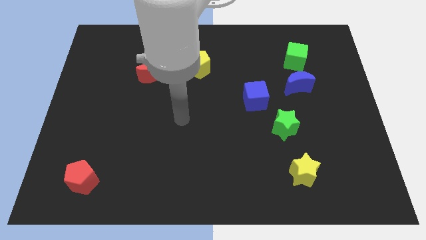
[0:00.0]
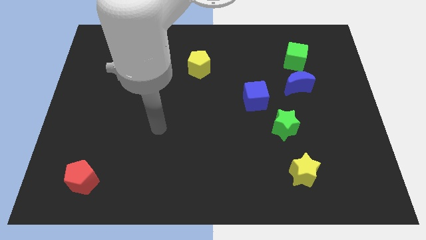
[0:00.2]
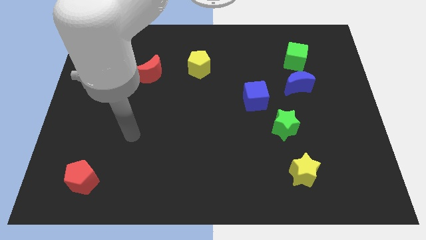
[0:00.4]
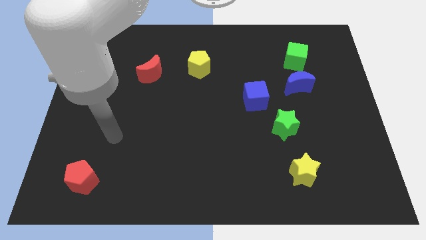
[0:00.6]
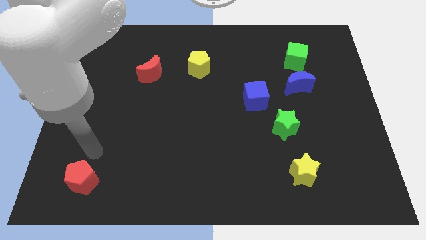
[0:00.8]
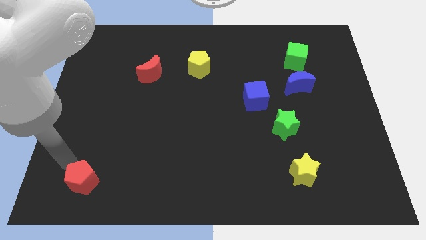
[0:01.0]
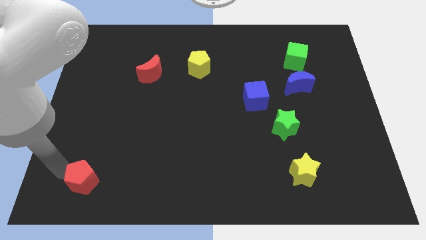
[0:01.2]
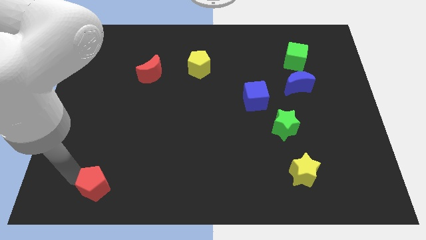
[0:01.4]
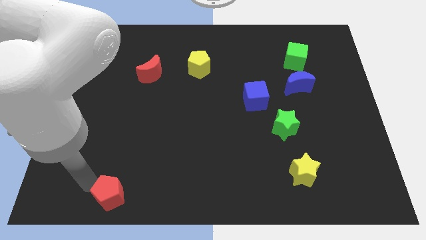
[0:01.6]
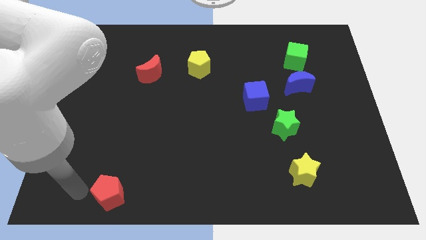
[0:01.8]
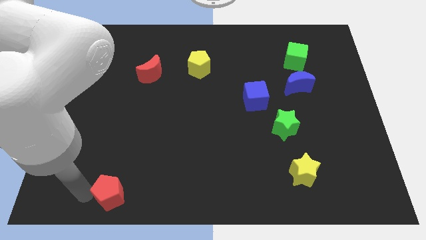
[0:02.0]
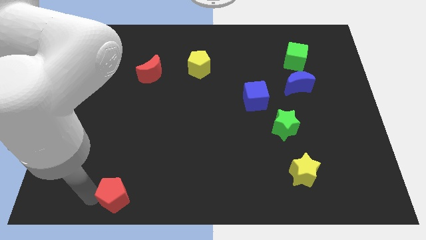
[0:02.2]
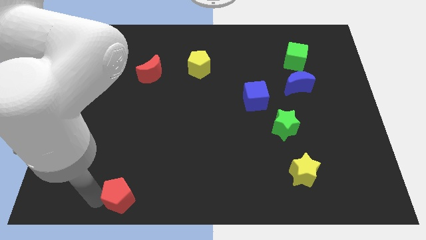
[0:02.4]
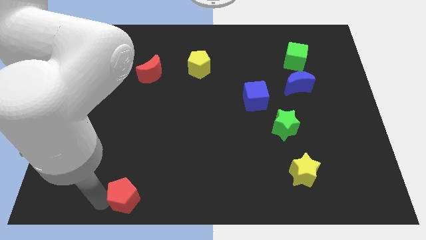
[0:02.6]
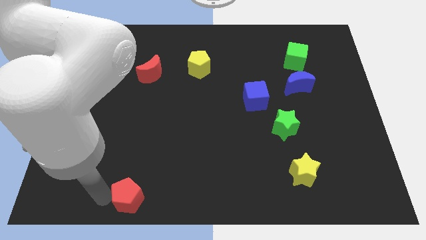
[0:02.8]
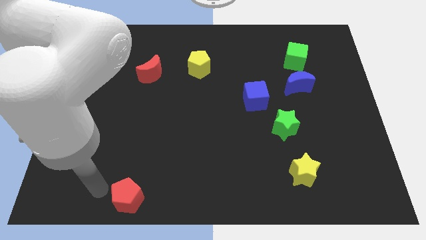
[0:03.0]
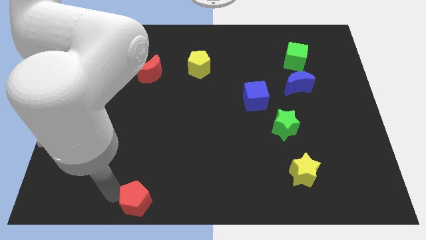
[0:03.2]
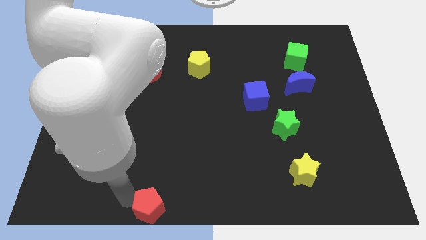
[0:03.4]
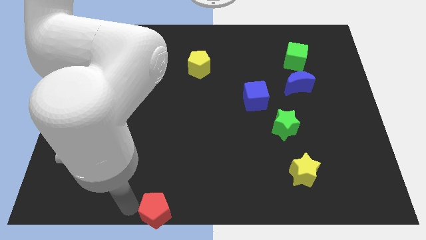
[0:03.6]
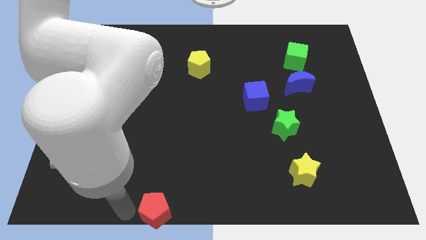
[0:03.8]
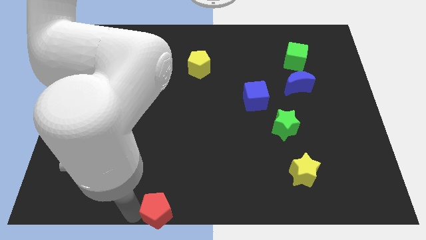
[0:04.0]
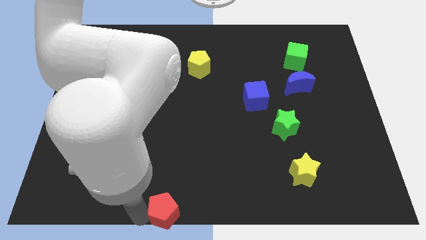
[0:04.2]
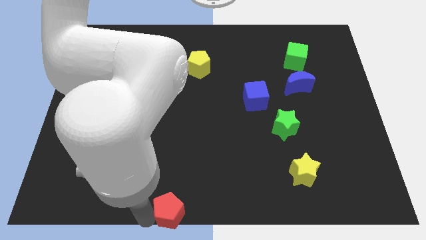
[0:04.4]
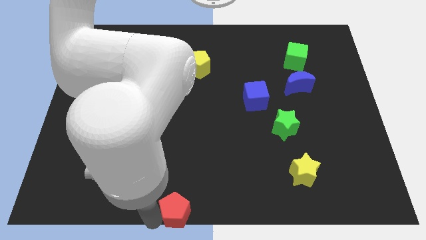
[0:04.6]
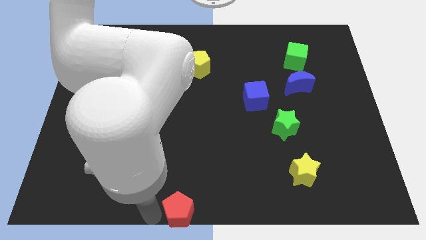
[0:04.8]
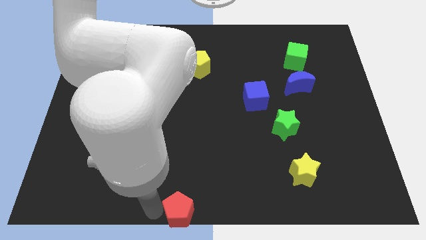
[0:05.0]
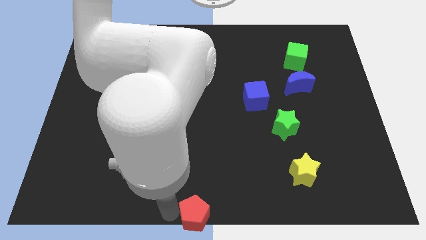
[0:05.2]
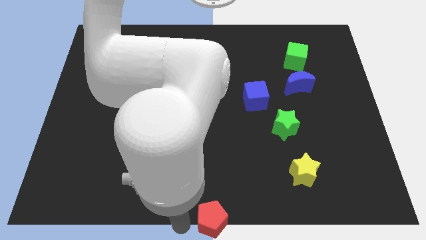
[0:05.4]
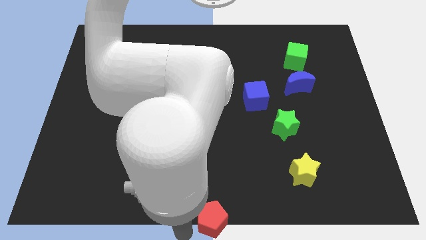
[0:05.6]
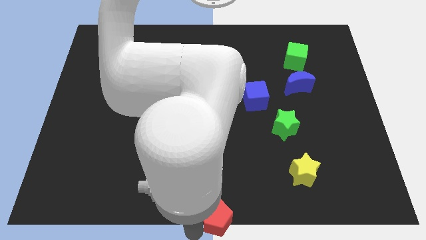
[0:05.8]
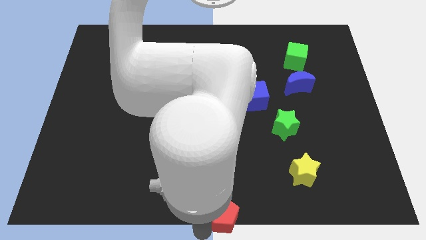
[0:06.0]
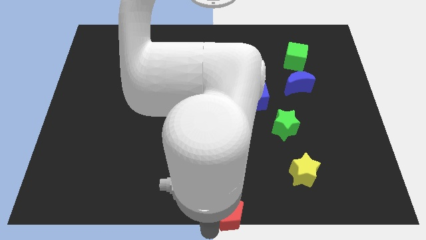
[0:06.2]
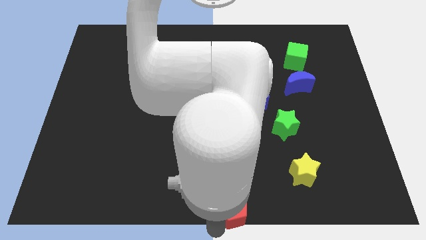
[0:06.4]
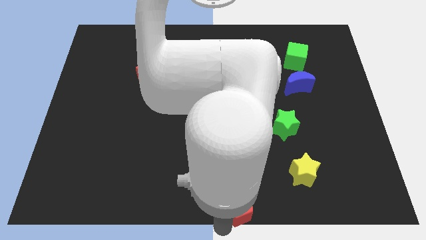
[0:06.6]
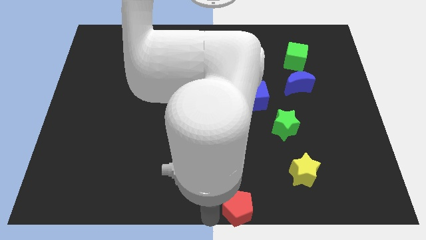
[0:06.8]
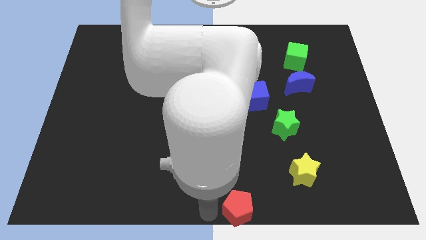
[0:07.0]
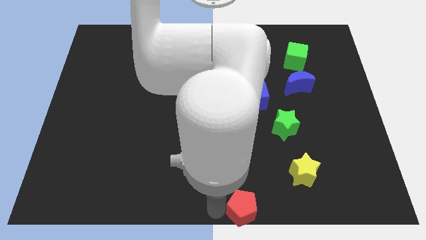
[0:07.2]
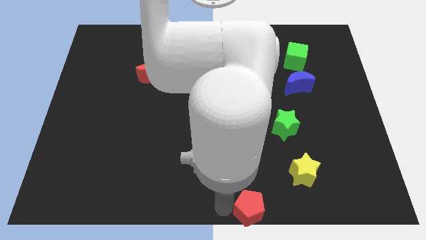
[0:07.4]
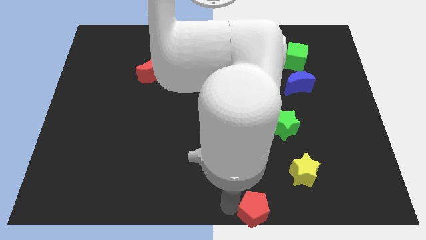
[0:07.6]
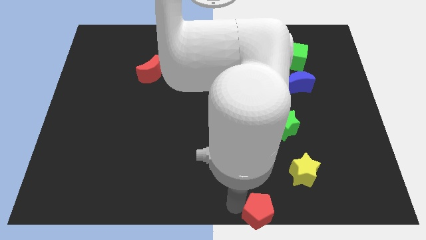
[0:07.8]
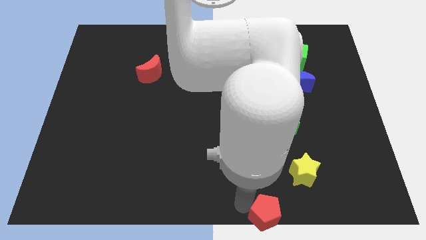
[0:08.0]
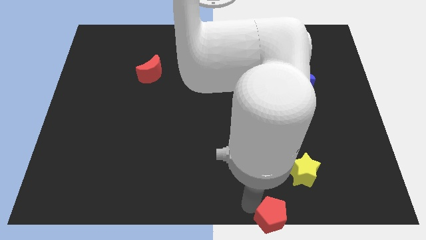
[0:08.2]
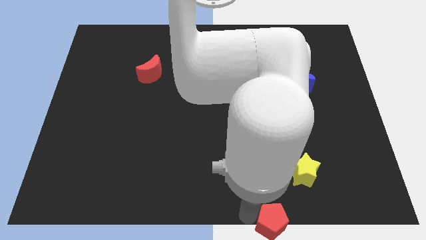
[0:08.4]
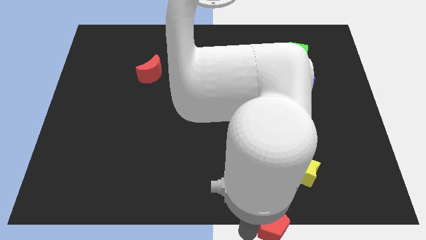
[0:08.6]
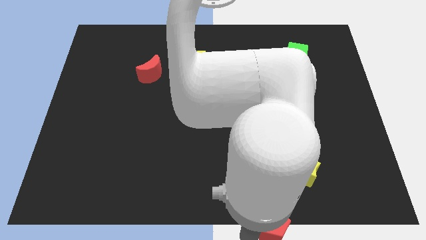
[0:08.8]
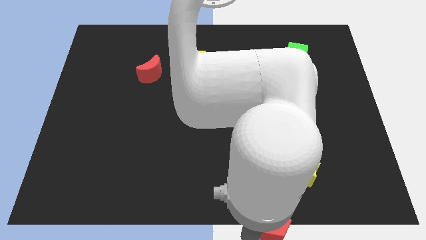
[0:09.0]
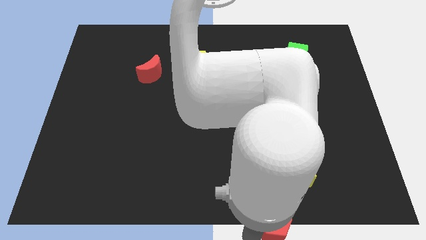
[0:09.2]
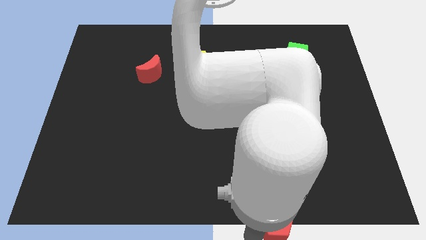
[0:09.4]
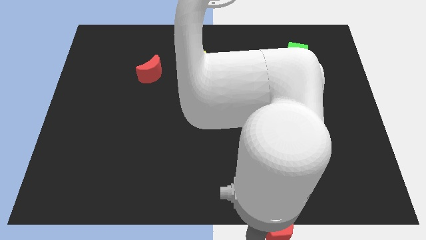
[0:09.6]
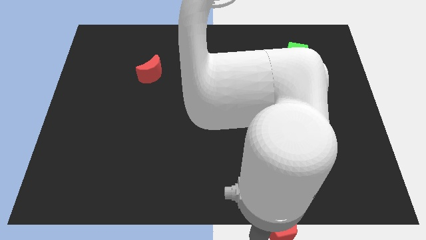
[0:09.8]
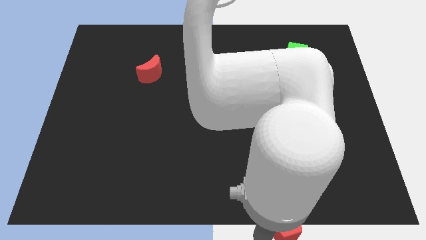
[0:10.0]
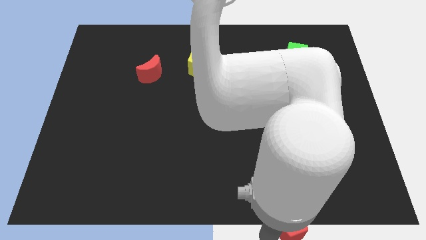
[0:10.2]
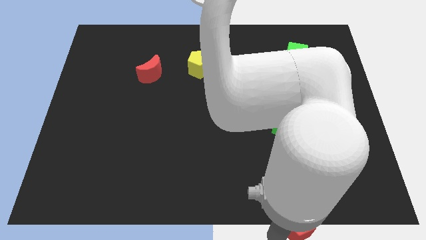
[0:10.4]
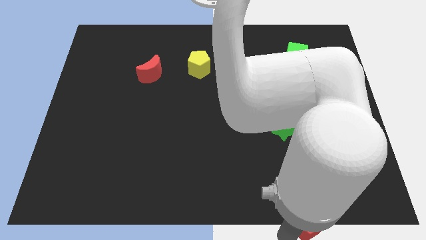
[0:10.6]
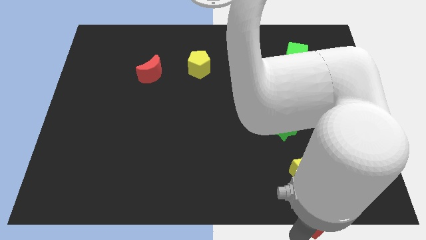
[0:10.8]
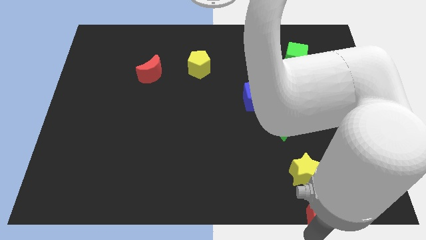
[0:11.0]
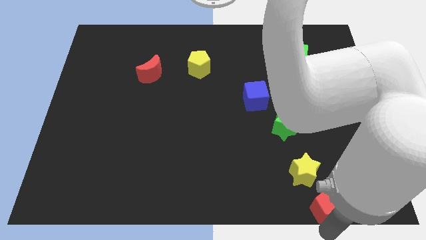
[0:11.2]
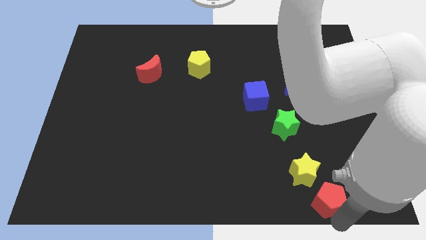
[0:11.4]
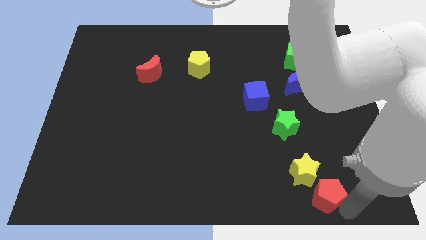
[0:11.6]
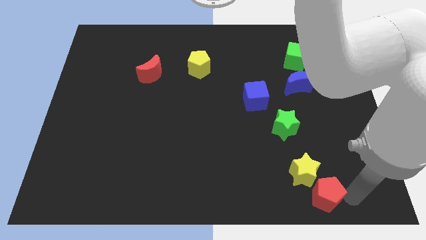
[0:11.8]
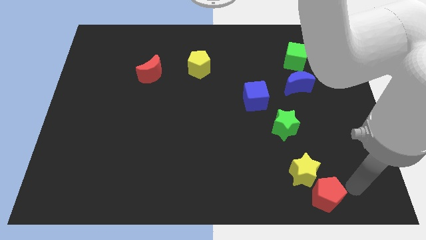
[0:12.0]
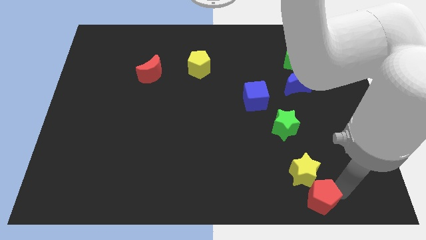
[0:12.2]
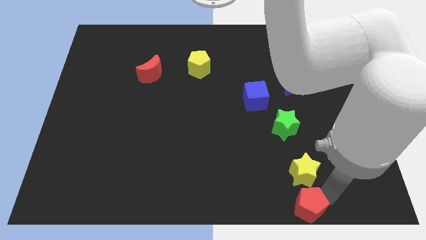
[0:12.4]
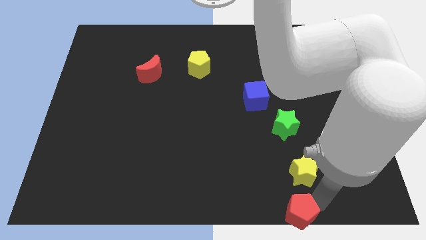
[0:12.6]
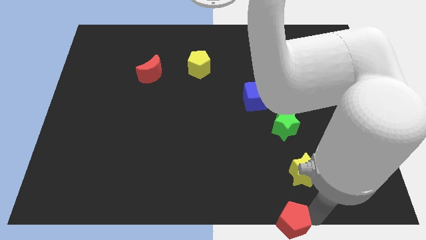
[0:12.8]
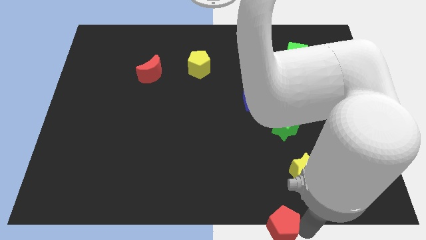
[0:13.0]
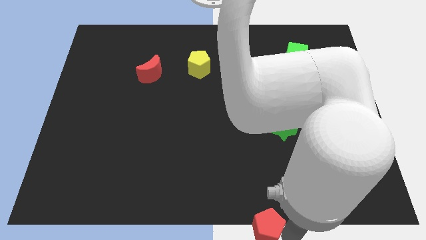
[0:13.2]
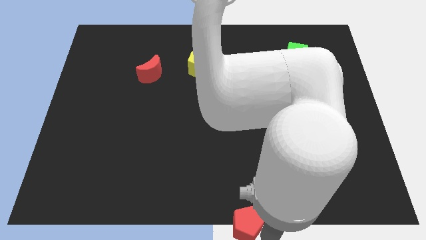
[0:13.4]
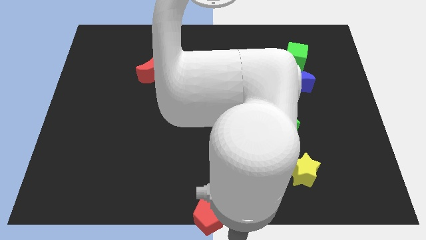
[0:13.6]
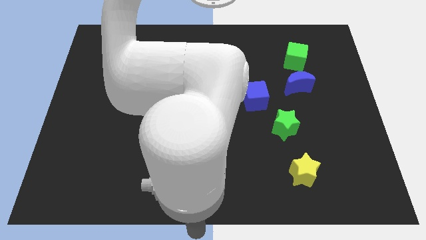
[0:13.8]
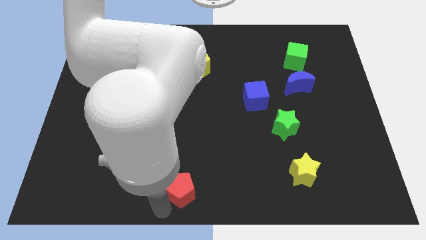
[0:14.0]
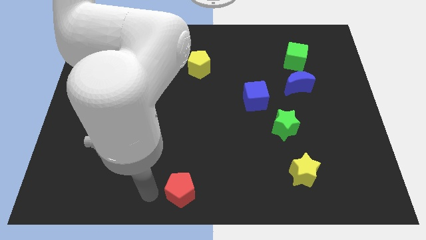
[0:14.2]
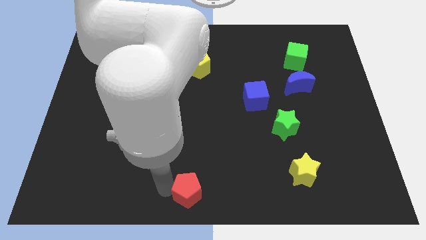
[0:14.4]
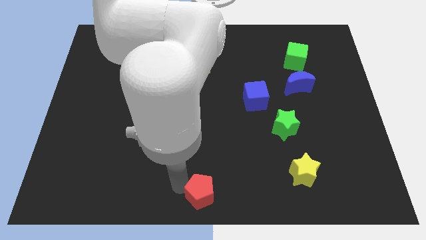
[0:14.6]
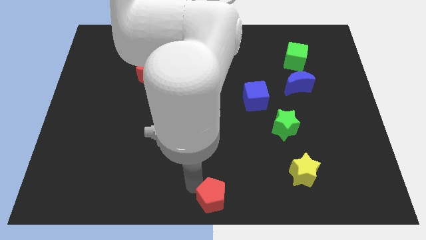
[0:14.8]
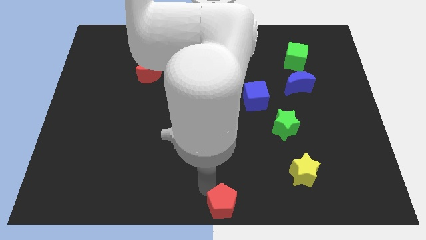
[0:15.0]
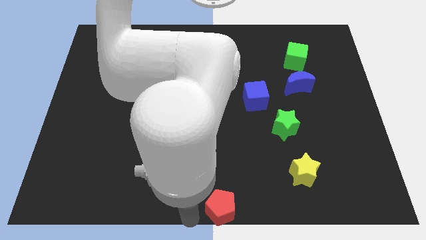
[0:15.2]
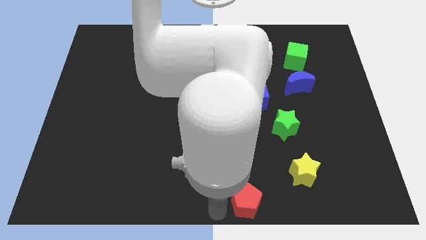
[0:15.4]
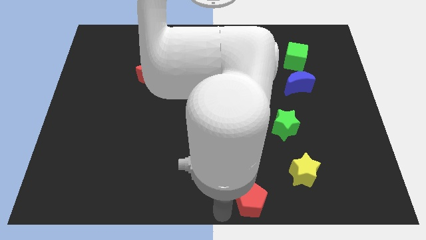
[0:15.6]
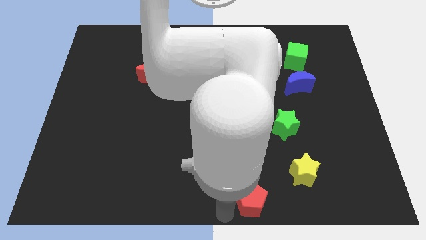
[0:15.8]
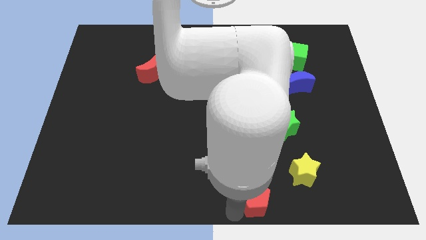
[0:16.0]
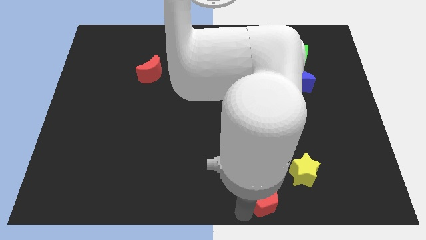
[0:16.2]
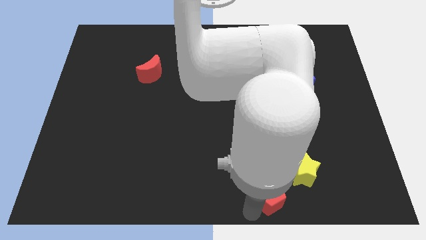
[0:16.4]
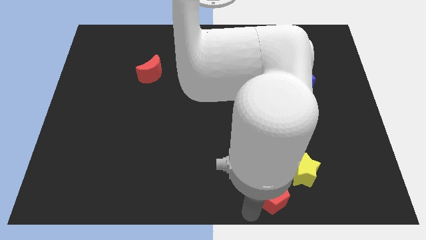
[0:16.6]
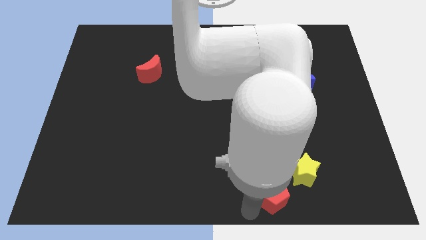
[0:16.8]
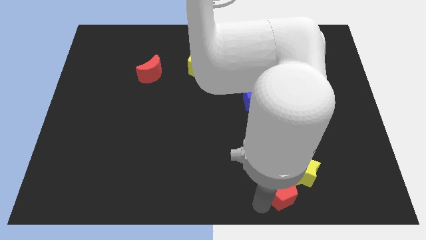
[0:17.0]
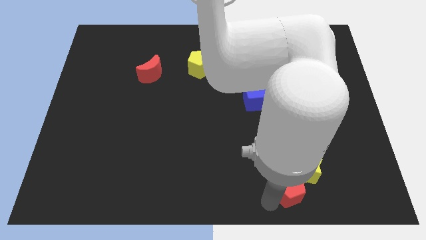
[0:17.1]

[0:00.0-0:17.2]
move the red pentagon below the green star
